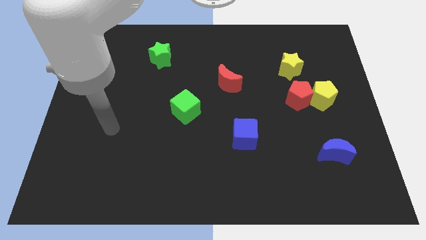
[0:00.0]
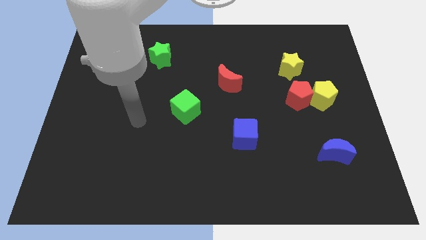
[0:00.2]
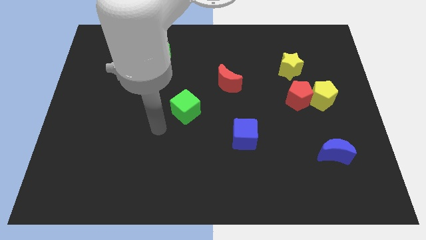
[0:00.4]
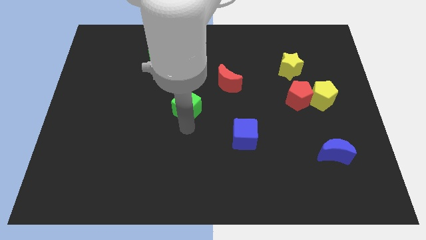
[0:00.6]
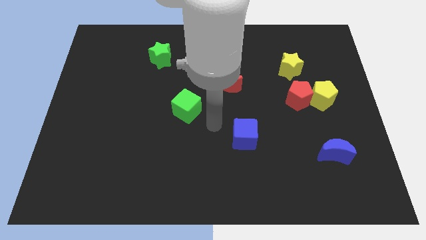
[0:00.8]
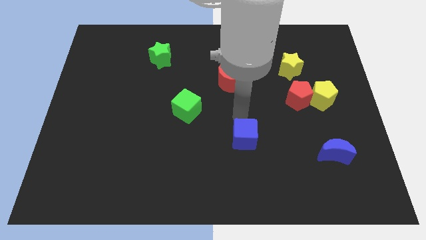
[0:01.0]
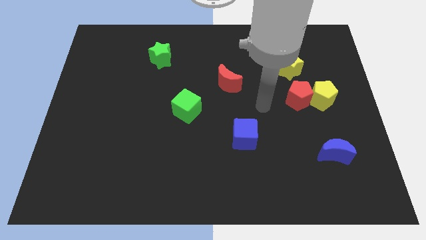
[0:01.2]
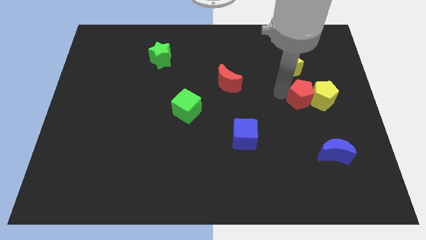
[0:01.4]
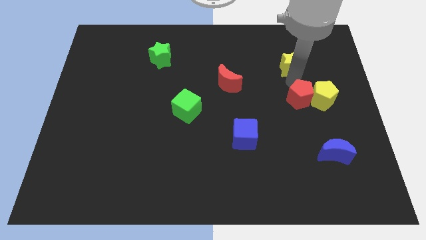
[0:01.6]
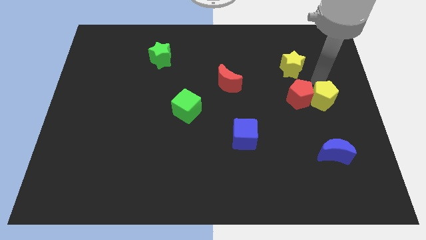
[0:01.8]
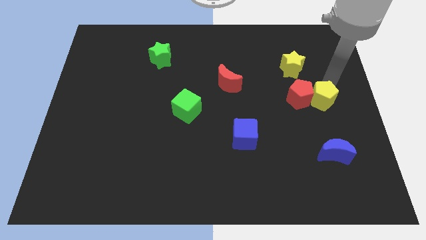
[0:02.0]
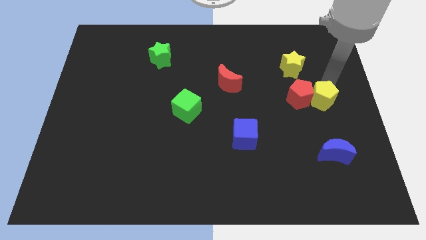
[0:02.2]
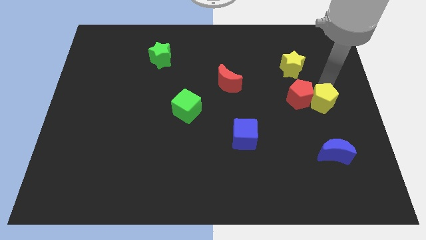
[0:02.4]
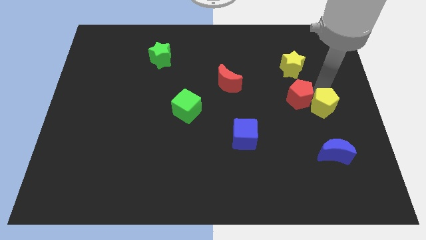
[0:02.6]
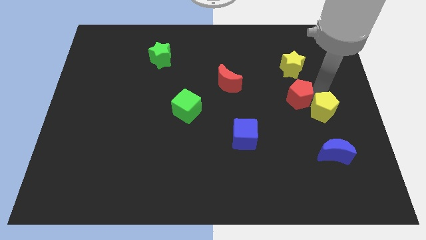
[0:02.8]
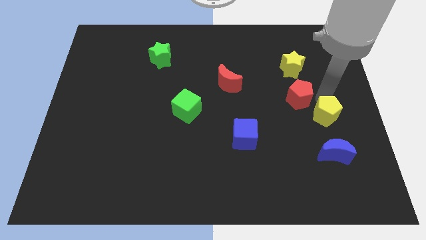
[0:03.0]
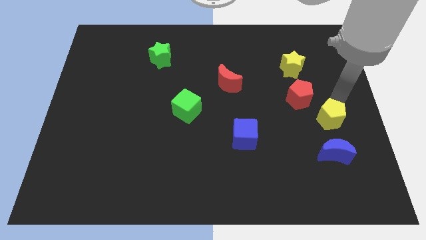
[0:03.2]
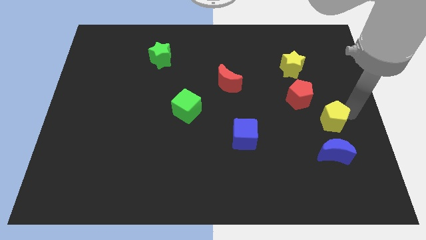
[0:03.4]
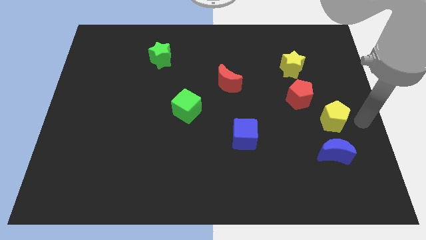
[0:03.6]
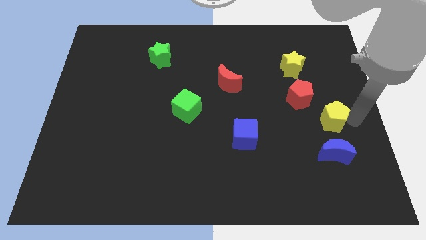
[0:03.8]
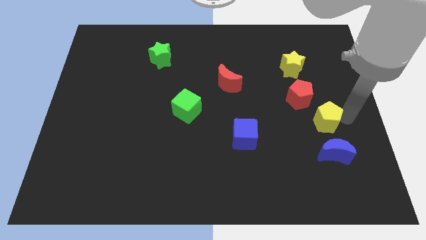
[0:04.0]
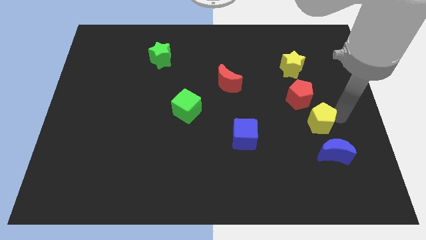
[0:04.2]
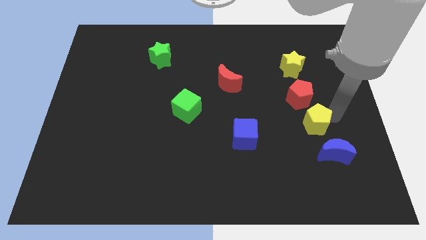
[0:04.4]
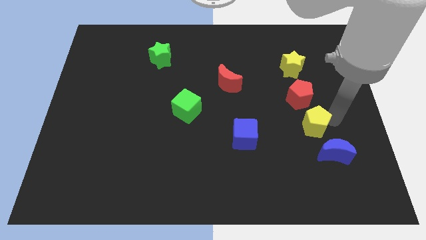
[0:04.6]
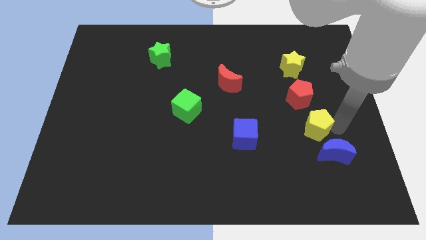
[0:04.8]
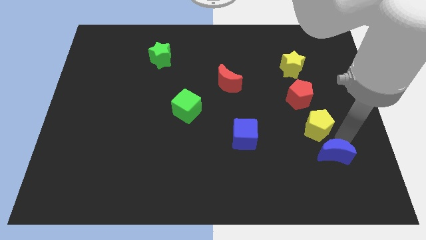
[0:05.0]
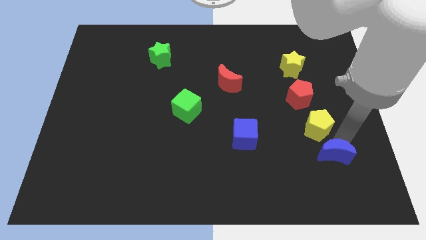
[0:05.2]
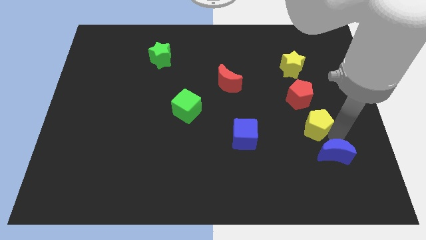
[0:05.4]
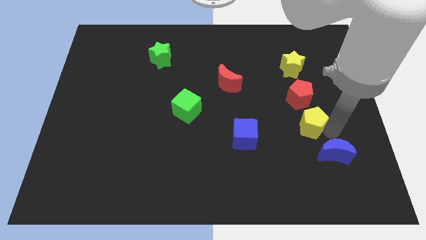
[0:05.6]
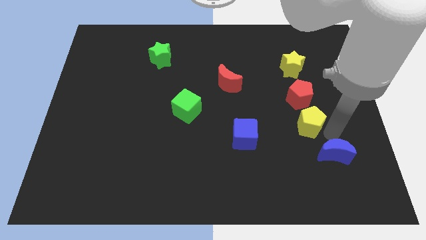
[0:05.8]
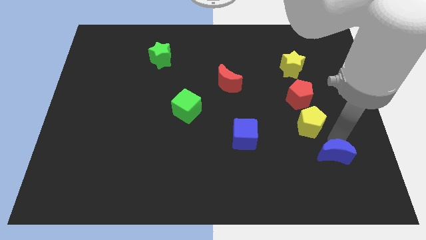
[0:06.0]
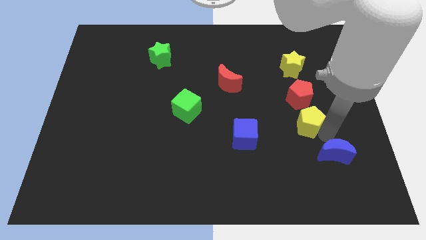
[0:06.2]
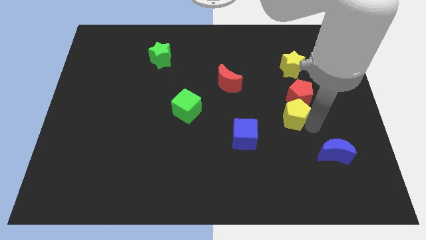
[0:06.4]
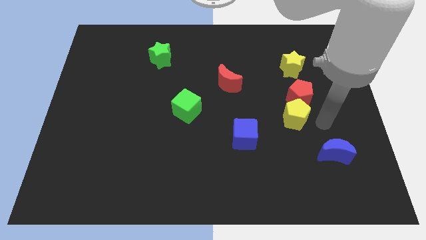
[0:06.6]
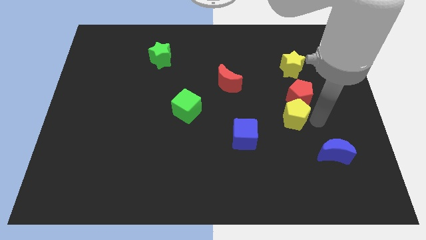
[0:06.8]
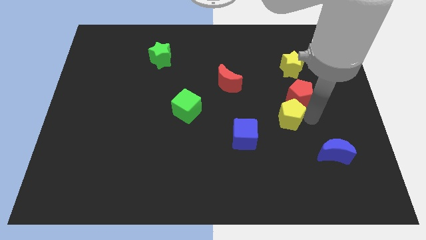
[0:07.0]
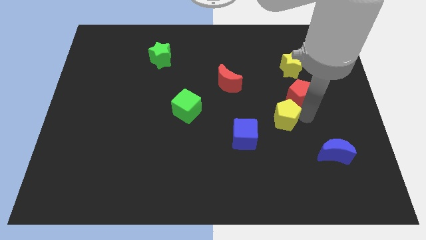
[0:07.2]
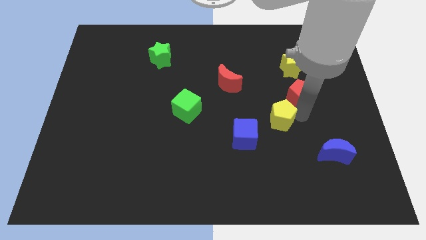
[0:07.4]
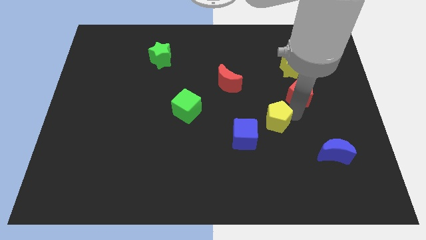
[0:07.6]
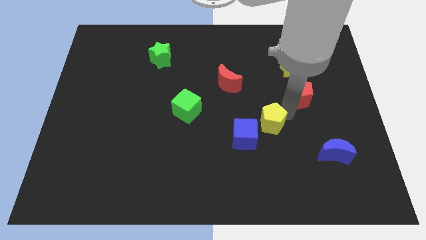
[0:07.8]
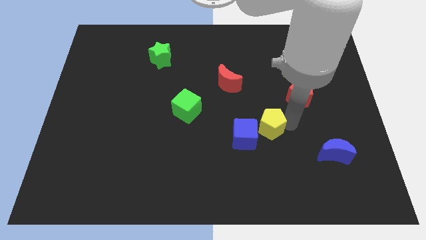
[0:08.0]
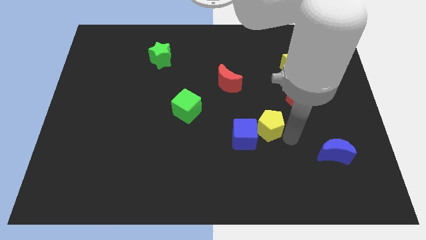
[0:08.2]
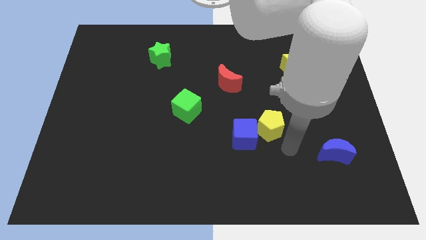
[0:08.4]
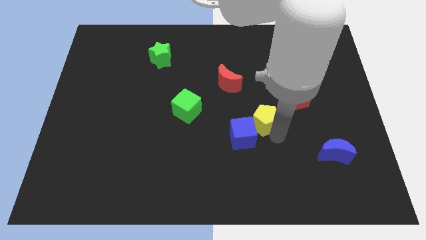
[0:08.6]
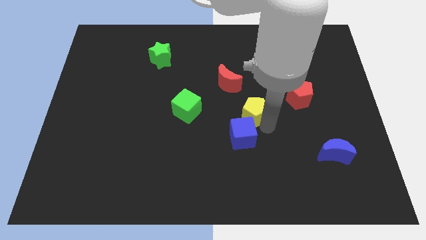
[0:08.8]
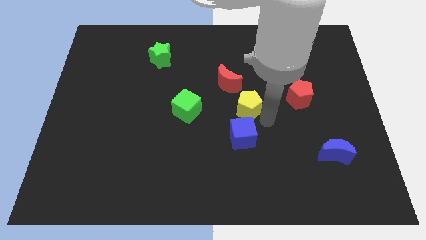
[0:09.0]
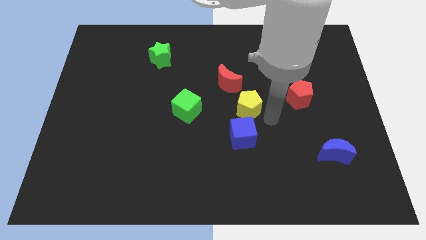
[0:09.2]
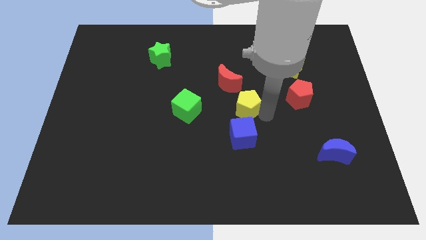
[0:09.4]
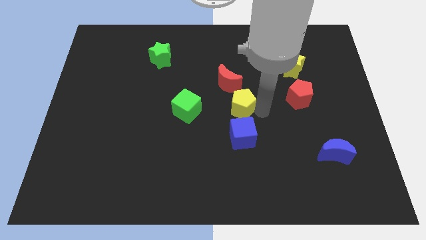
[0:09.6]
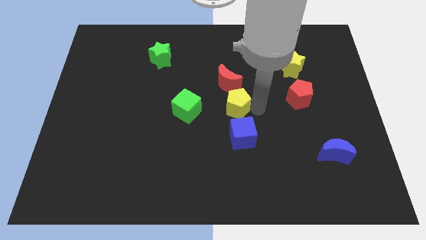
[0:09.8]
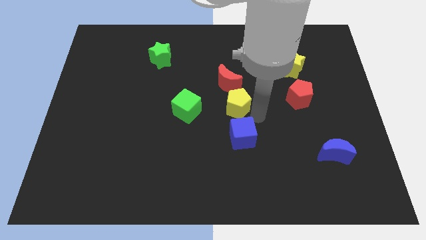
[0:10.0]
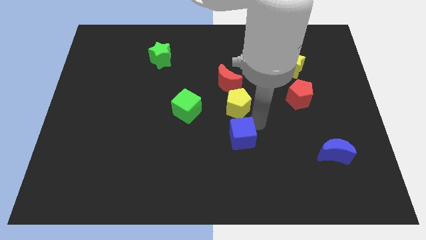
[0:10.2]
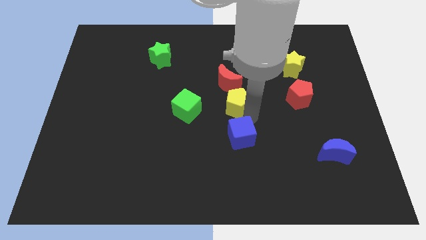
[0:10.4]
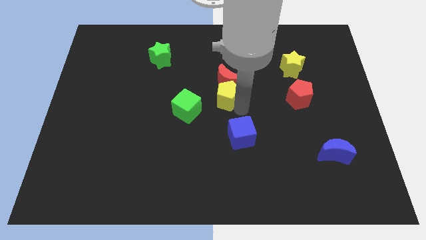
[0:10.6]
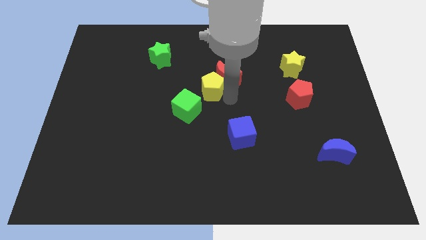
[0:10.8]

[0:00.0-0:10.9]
slide the yellow pentagon left of the red moon

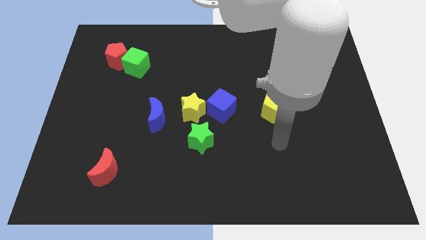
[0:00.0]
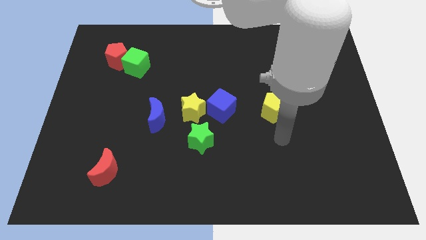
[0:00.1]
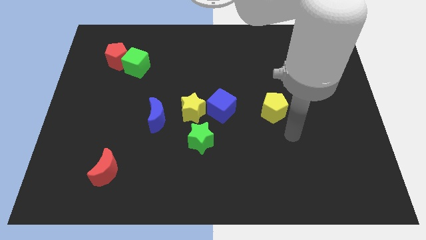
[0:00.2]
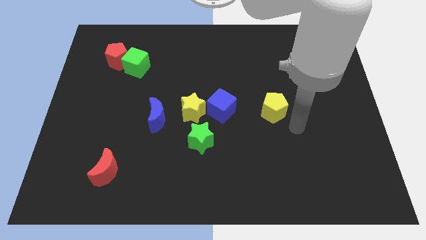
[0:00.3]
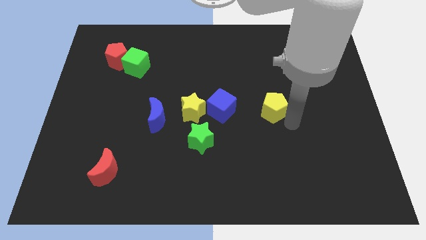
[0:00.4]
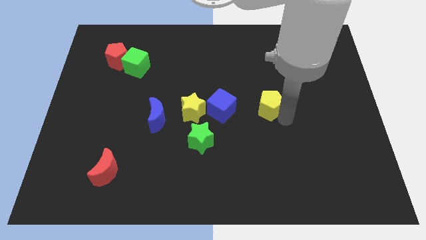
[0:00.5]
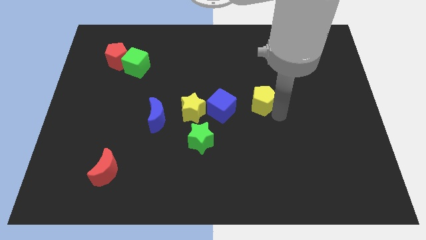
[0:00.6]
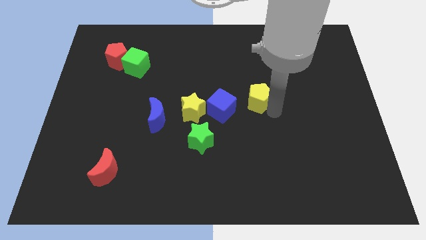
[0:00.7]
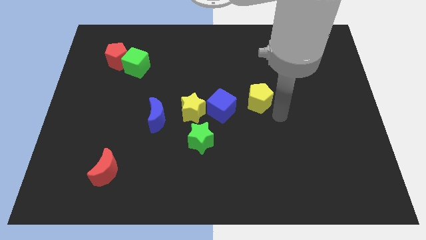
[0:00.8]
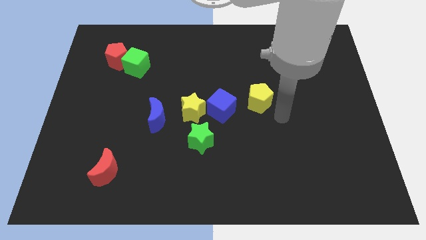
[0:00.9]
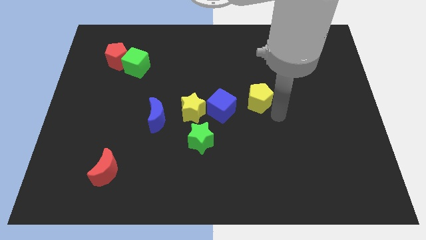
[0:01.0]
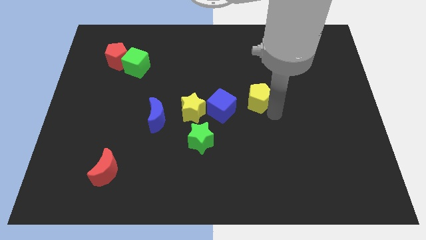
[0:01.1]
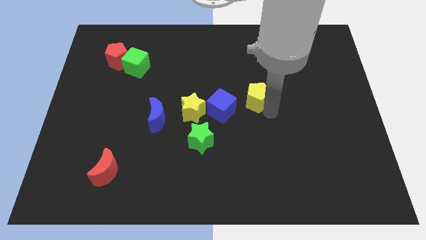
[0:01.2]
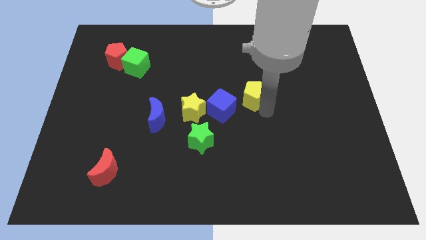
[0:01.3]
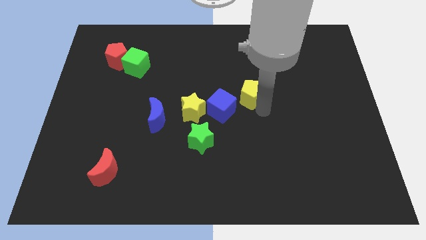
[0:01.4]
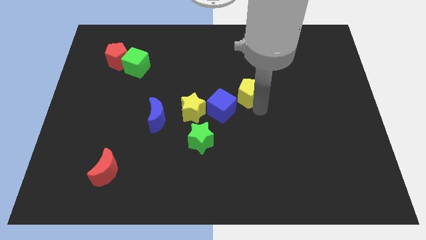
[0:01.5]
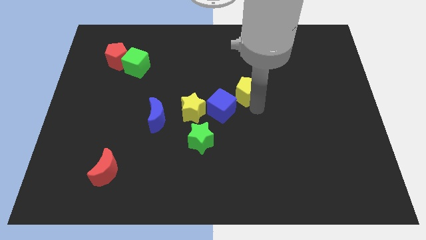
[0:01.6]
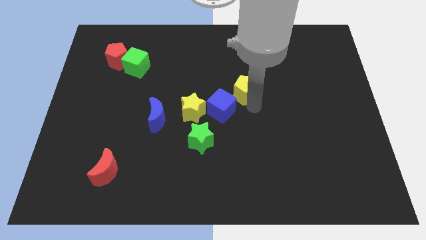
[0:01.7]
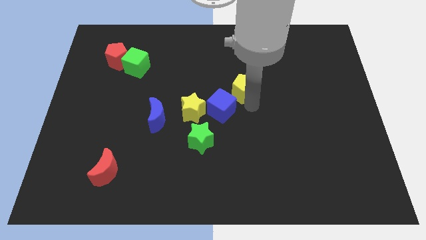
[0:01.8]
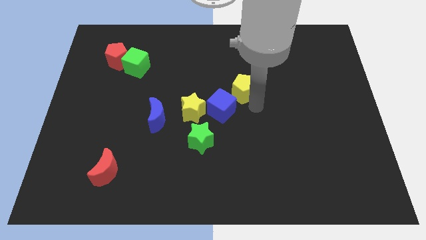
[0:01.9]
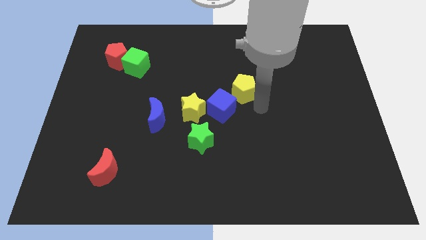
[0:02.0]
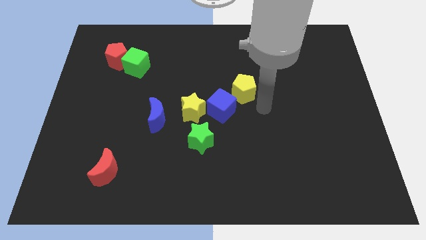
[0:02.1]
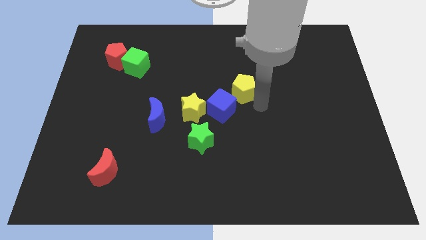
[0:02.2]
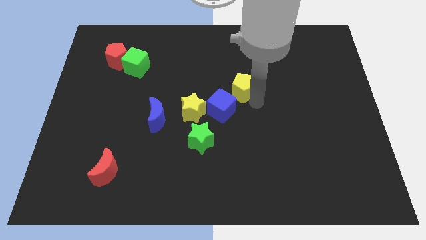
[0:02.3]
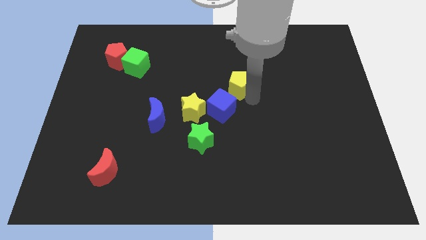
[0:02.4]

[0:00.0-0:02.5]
slide the yellow pentagon to the top of the blue cube
